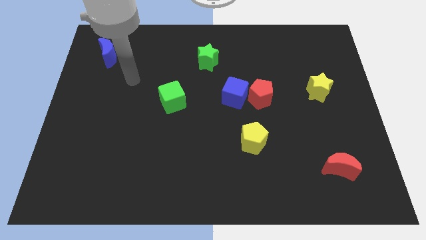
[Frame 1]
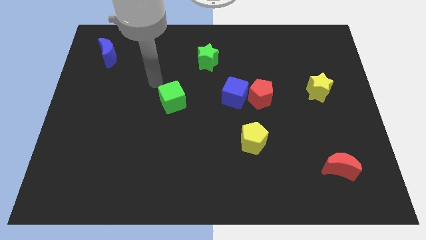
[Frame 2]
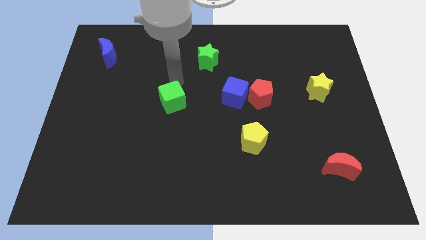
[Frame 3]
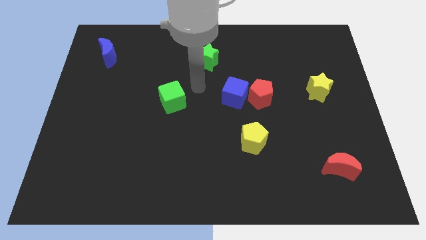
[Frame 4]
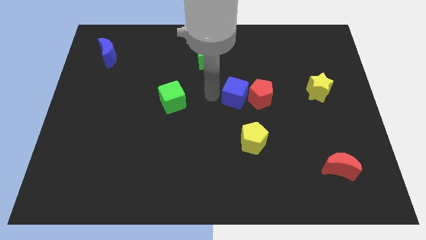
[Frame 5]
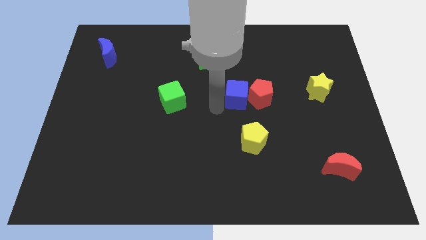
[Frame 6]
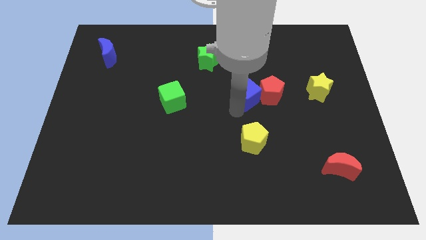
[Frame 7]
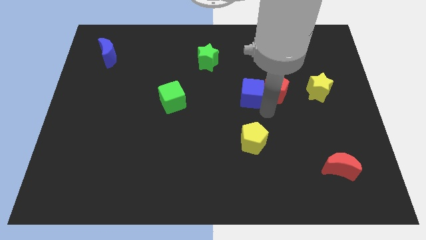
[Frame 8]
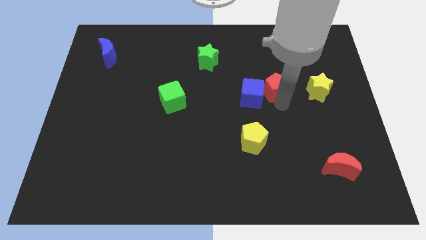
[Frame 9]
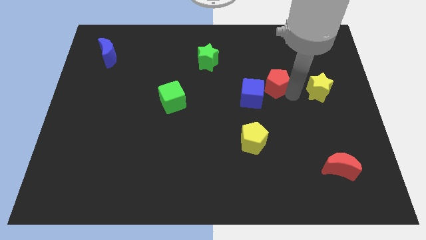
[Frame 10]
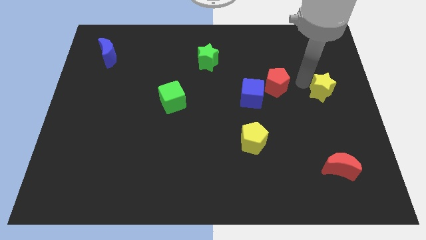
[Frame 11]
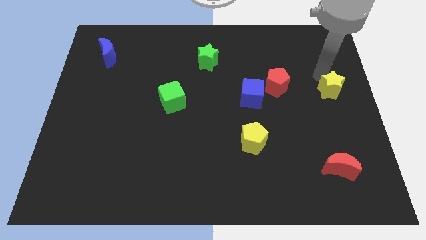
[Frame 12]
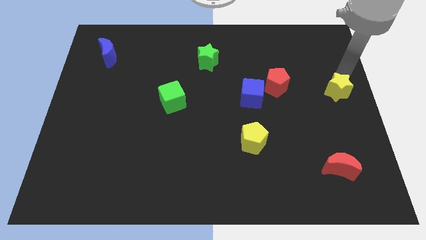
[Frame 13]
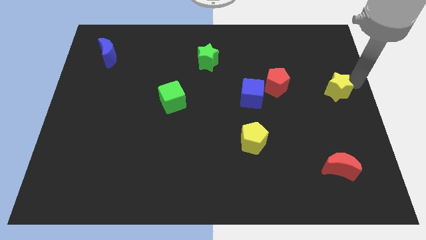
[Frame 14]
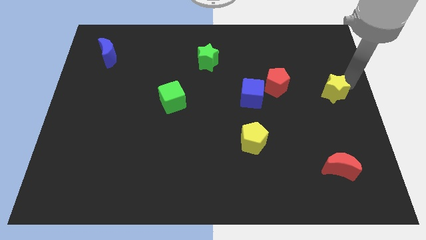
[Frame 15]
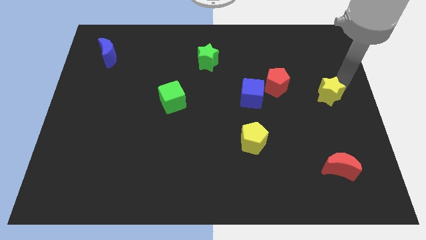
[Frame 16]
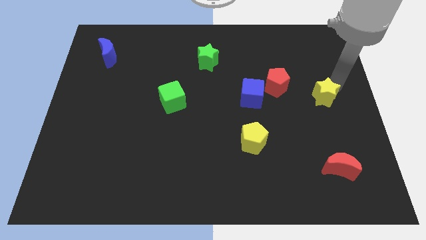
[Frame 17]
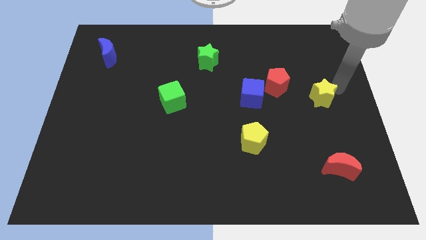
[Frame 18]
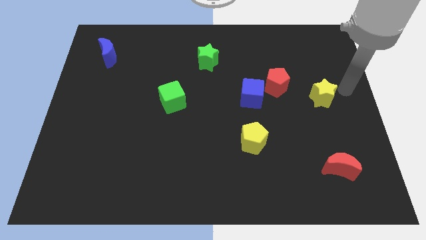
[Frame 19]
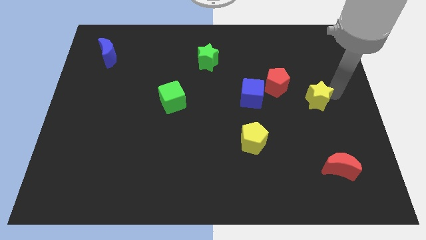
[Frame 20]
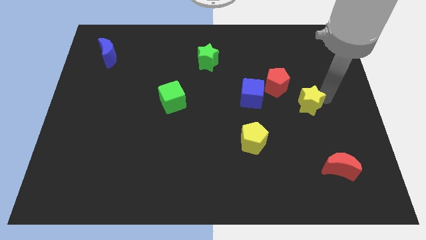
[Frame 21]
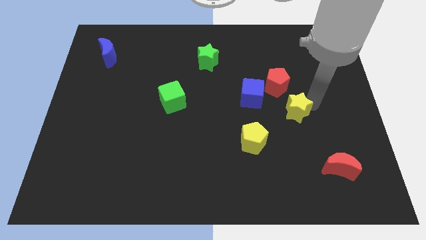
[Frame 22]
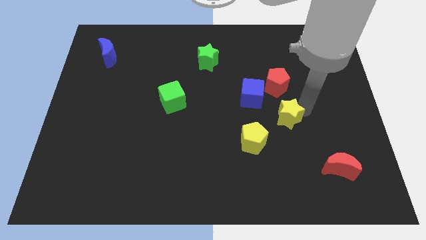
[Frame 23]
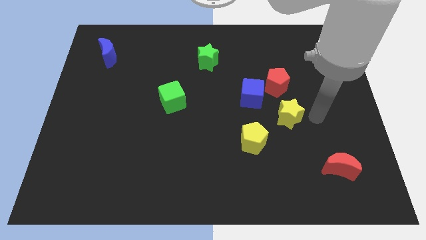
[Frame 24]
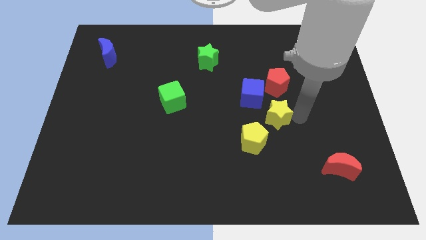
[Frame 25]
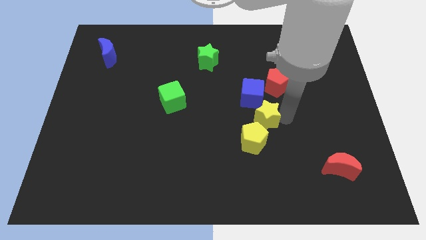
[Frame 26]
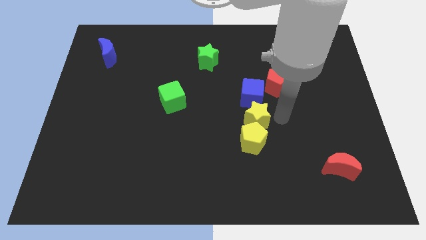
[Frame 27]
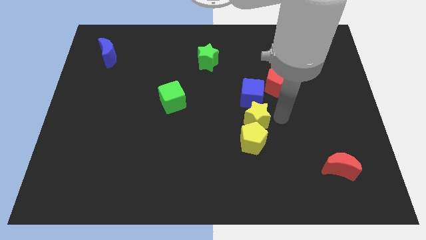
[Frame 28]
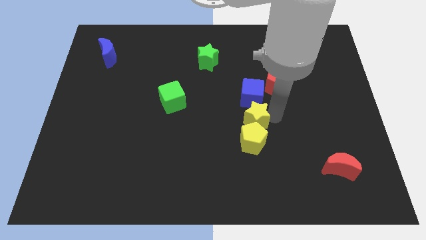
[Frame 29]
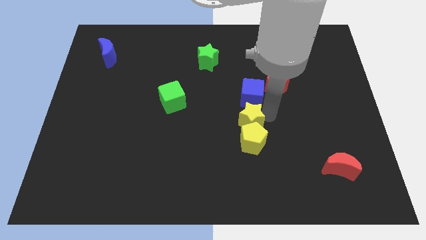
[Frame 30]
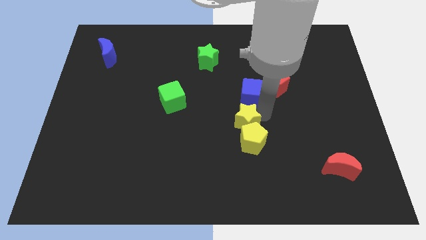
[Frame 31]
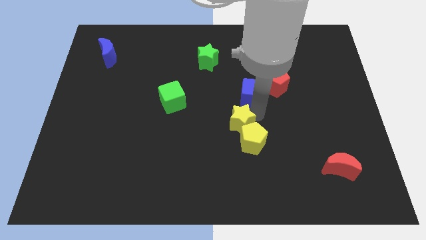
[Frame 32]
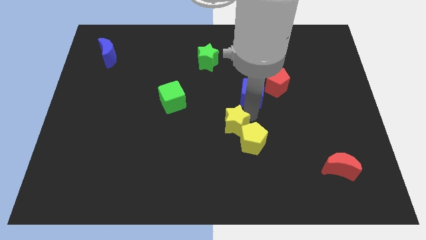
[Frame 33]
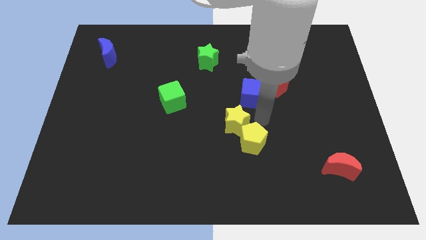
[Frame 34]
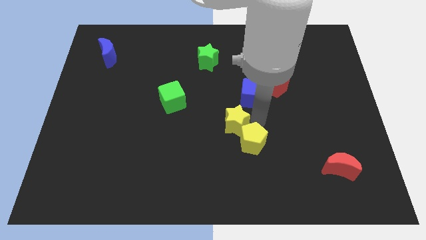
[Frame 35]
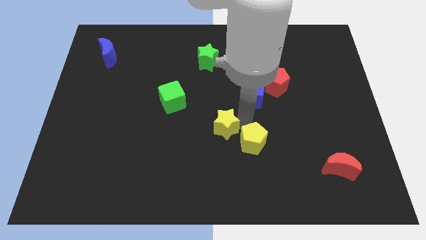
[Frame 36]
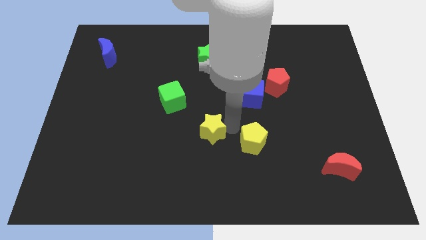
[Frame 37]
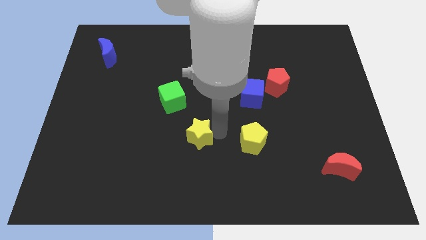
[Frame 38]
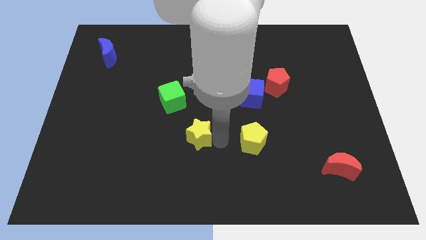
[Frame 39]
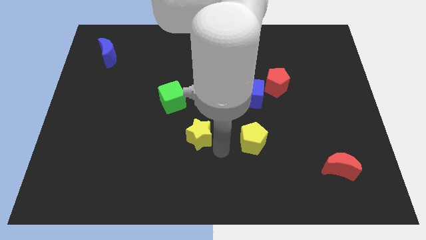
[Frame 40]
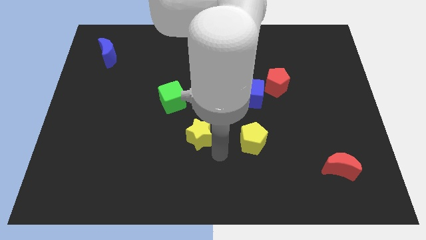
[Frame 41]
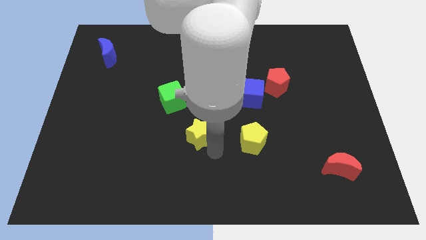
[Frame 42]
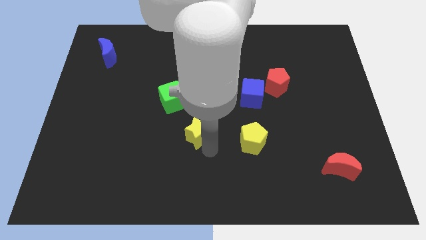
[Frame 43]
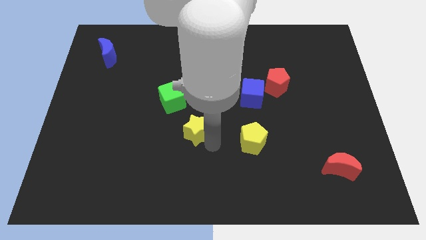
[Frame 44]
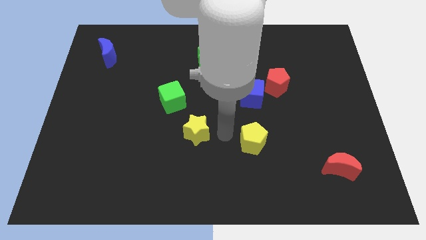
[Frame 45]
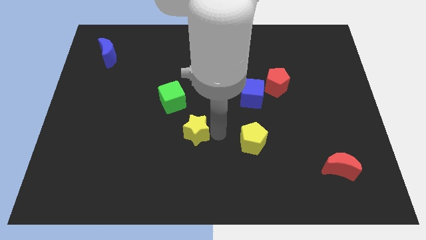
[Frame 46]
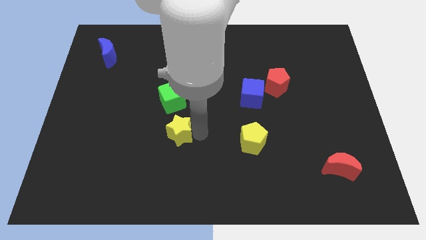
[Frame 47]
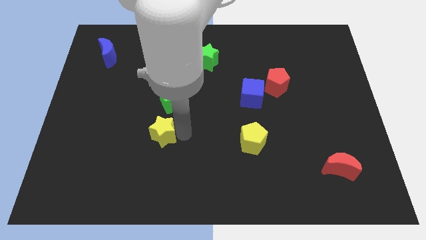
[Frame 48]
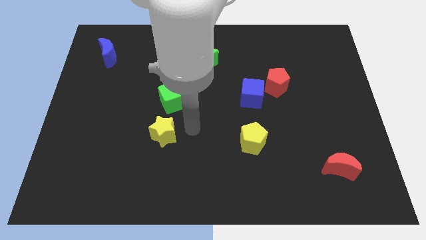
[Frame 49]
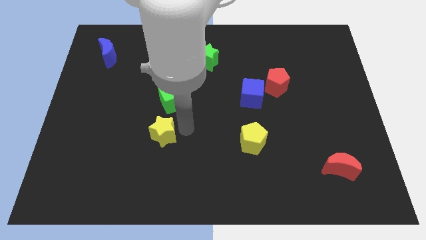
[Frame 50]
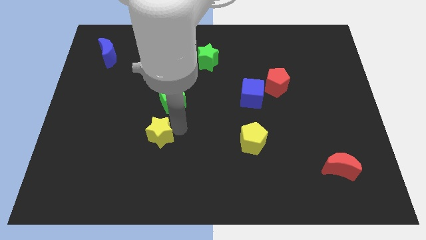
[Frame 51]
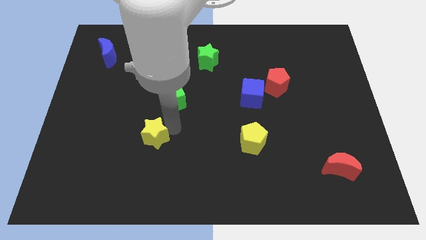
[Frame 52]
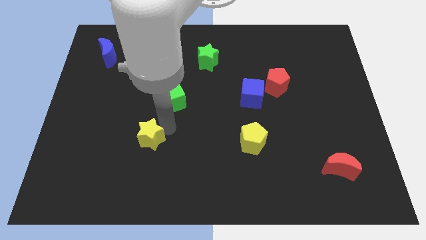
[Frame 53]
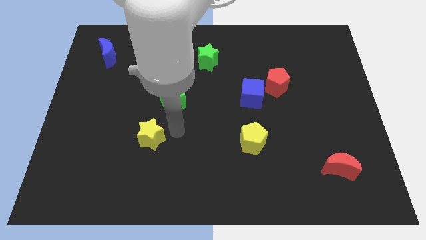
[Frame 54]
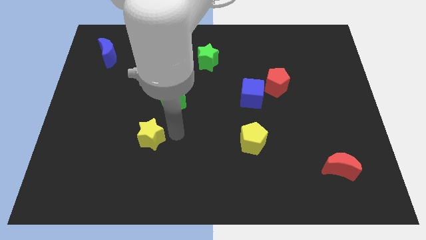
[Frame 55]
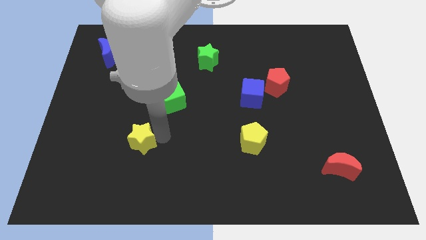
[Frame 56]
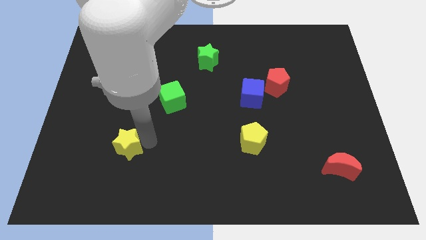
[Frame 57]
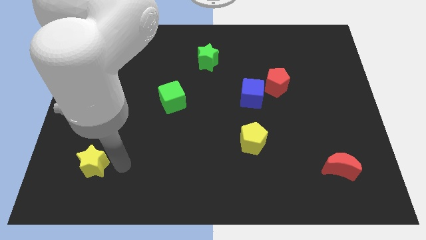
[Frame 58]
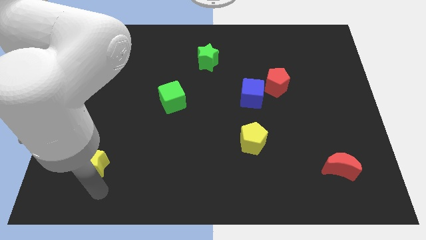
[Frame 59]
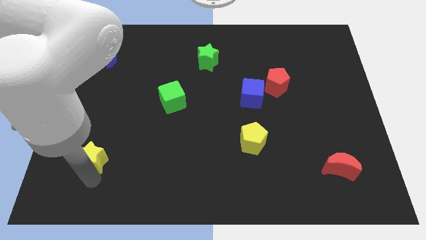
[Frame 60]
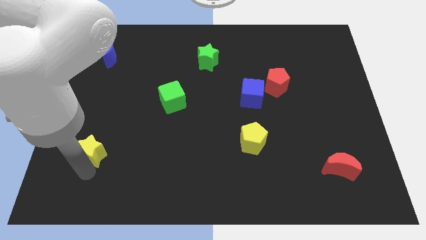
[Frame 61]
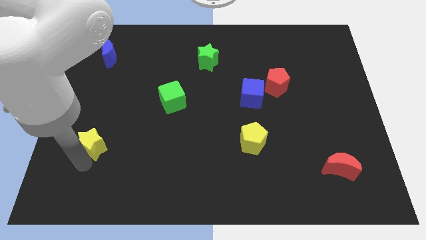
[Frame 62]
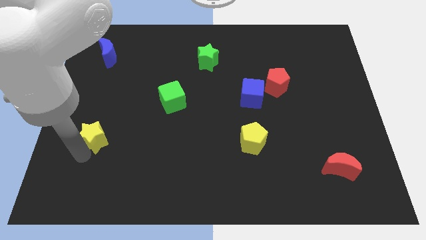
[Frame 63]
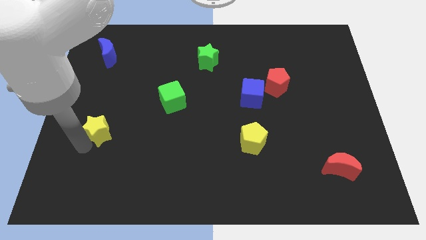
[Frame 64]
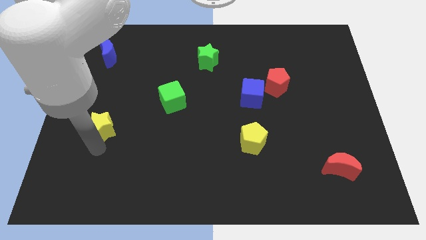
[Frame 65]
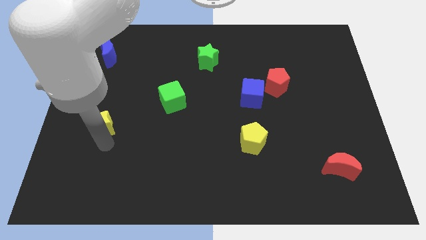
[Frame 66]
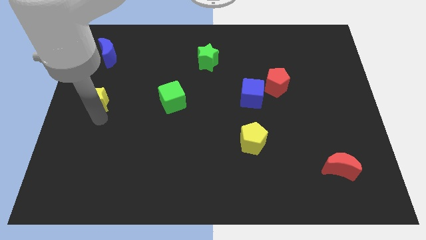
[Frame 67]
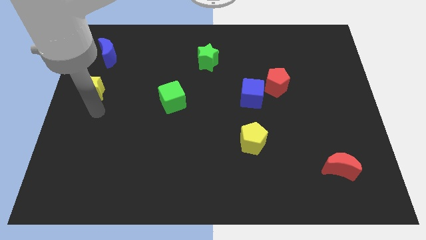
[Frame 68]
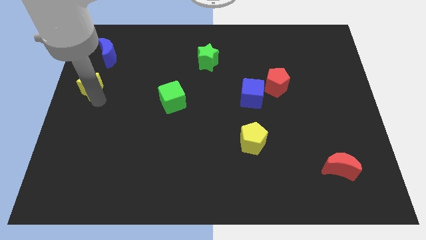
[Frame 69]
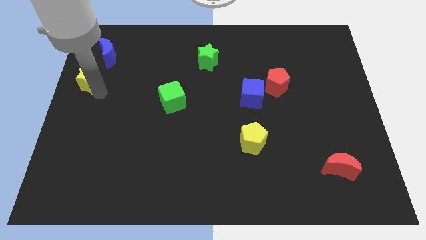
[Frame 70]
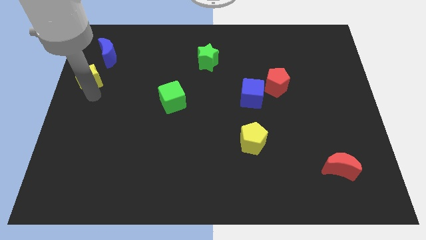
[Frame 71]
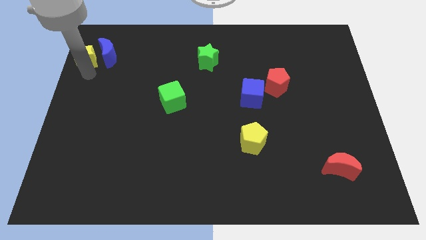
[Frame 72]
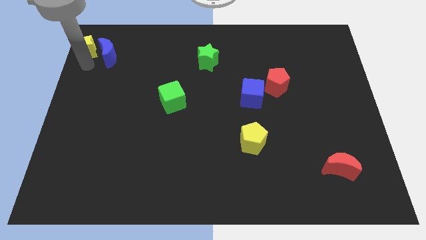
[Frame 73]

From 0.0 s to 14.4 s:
push the yellow star to the top left corner

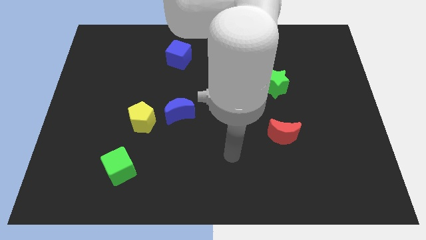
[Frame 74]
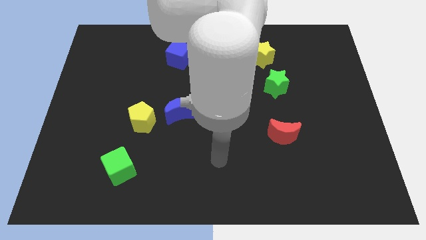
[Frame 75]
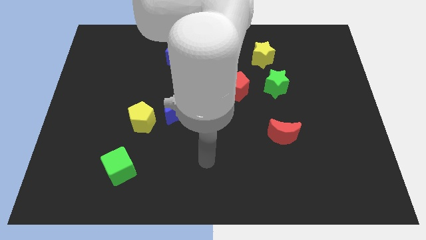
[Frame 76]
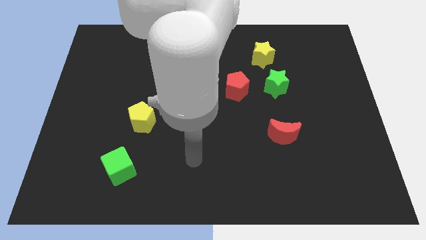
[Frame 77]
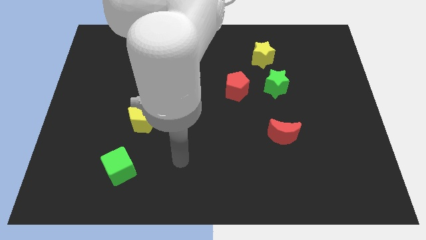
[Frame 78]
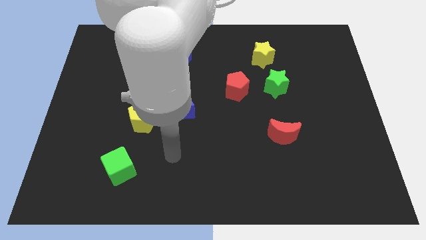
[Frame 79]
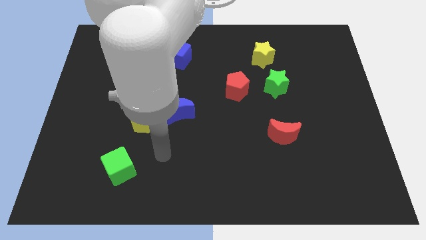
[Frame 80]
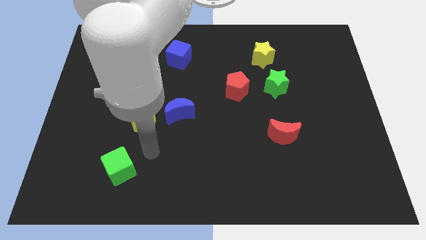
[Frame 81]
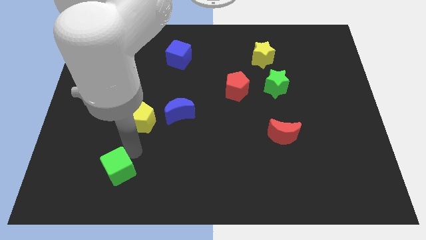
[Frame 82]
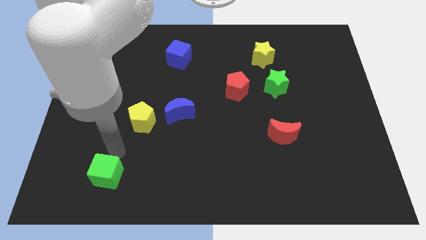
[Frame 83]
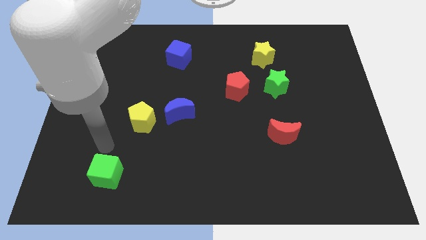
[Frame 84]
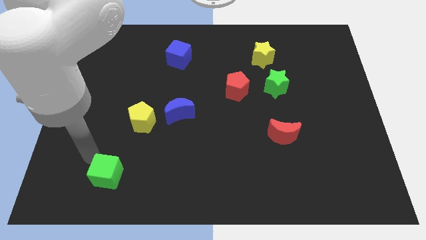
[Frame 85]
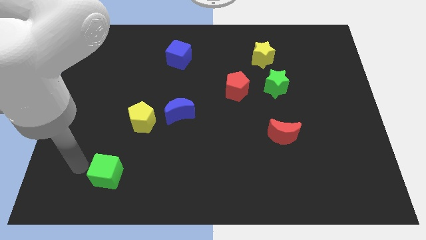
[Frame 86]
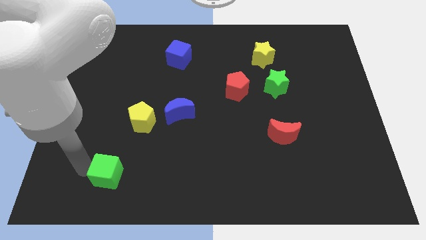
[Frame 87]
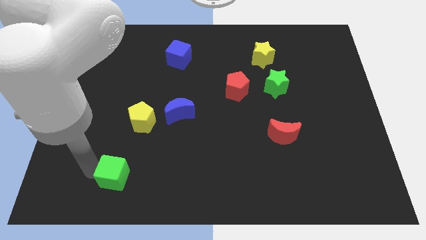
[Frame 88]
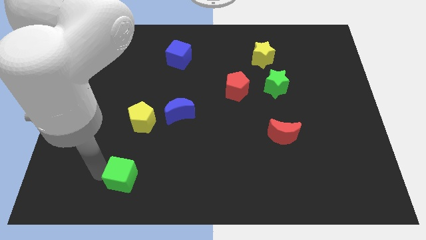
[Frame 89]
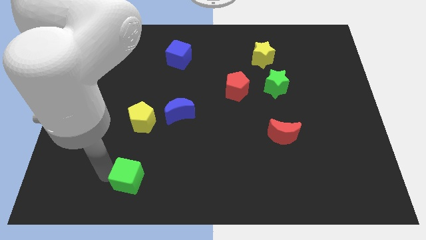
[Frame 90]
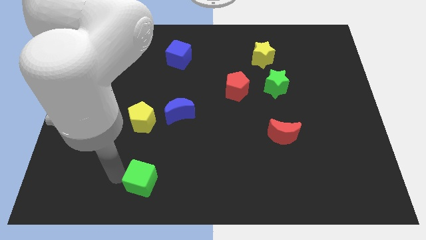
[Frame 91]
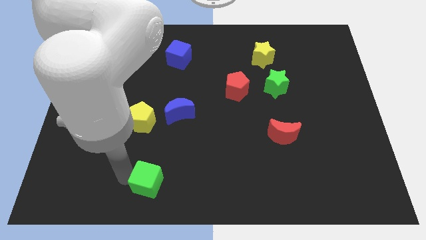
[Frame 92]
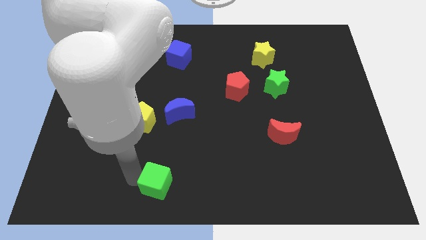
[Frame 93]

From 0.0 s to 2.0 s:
push the green cube to the bottom
